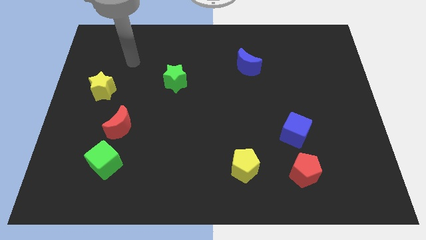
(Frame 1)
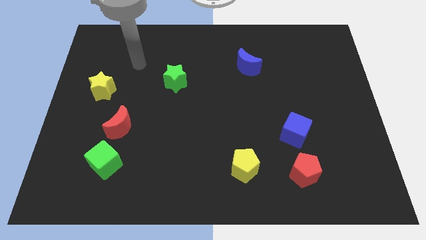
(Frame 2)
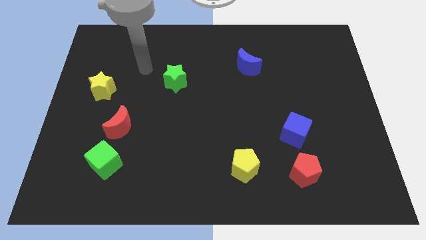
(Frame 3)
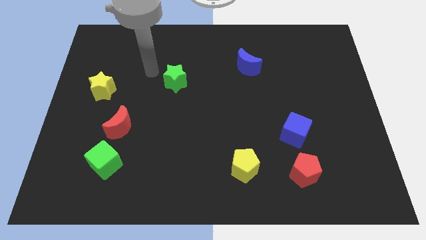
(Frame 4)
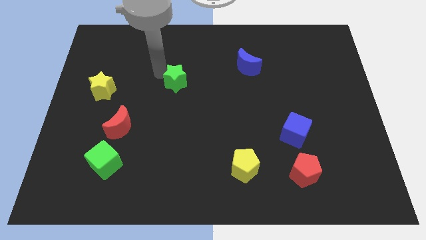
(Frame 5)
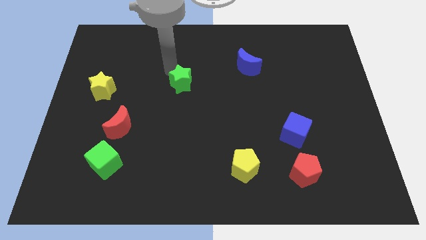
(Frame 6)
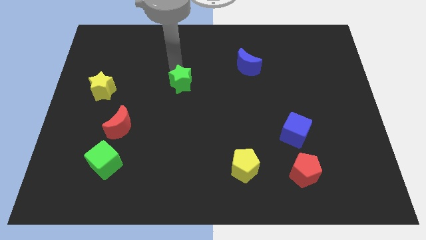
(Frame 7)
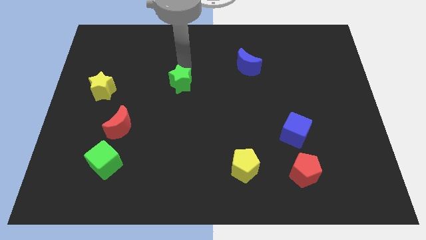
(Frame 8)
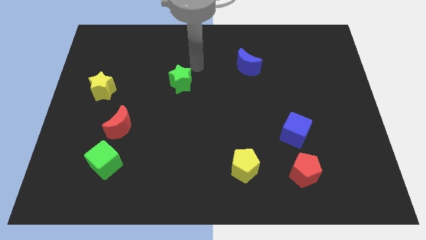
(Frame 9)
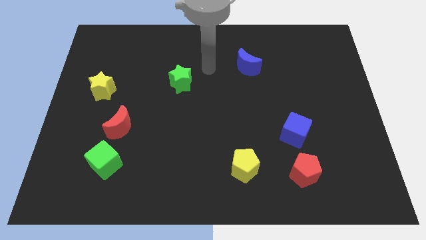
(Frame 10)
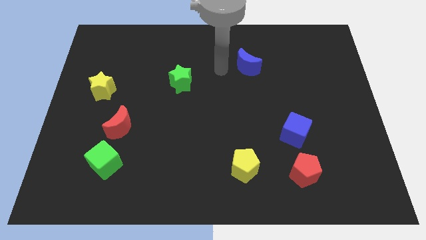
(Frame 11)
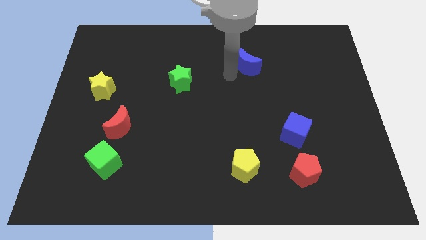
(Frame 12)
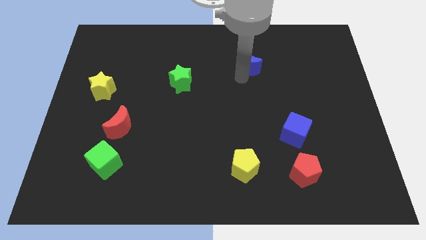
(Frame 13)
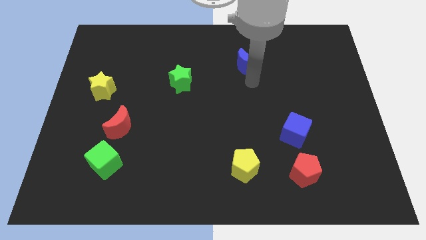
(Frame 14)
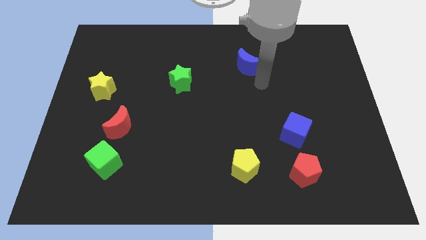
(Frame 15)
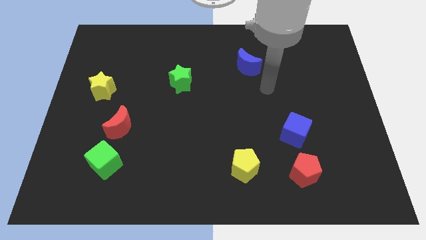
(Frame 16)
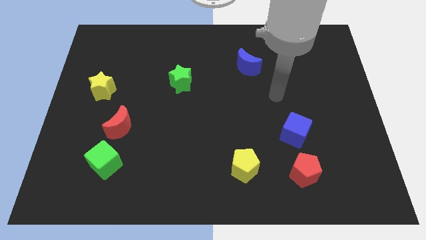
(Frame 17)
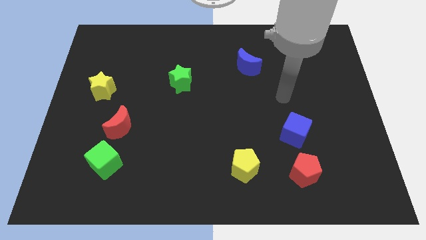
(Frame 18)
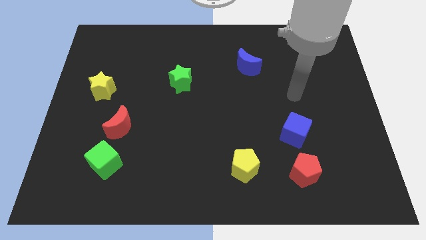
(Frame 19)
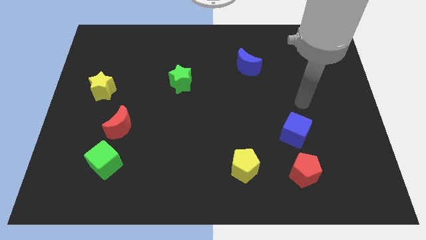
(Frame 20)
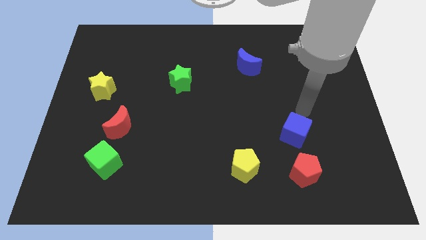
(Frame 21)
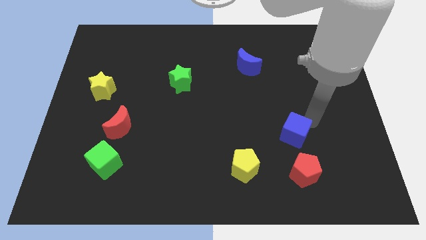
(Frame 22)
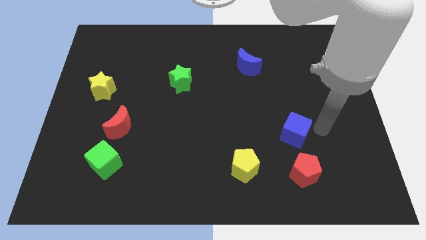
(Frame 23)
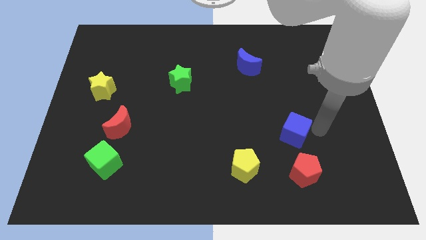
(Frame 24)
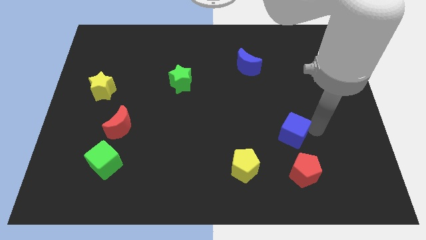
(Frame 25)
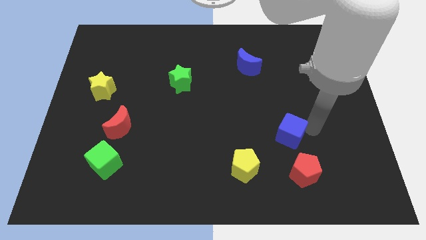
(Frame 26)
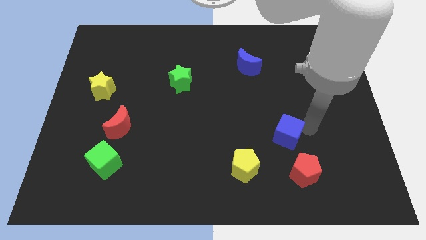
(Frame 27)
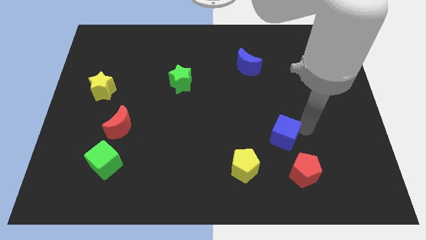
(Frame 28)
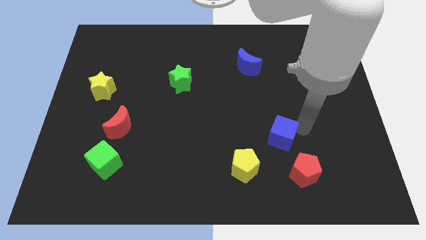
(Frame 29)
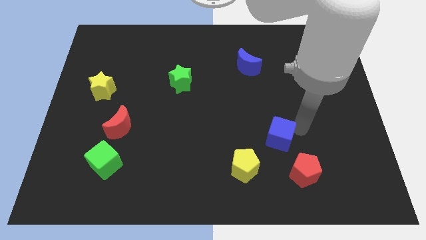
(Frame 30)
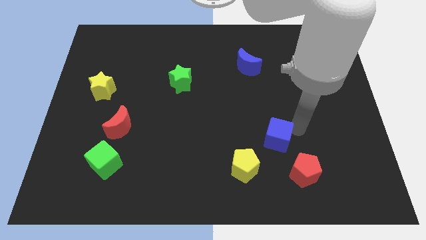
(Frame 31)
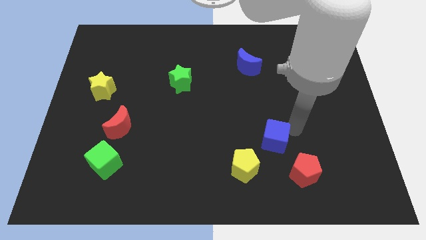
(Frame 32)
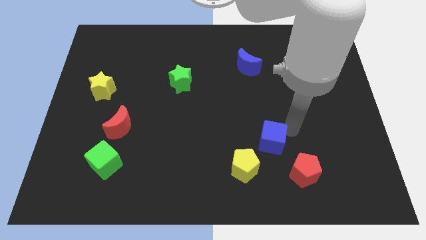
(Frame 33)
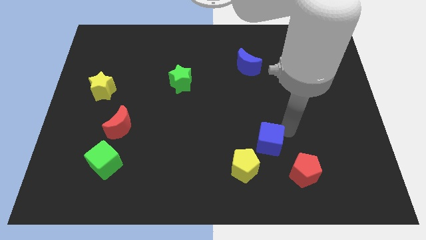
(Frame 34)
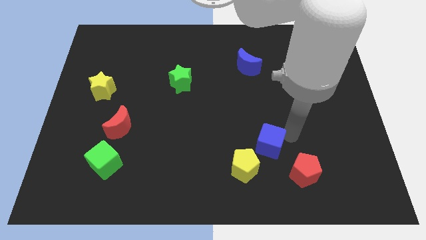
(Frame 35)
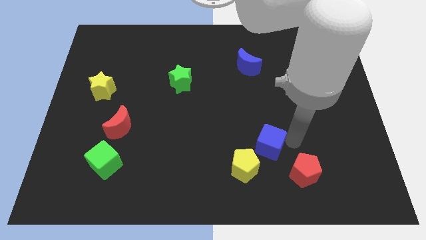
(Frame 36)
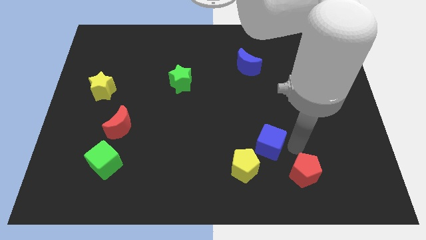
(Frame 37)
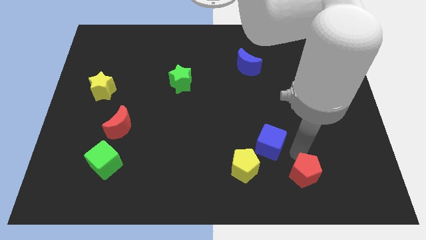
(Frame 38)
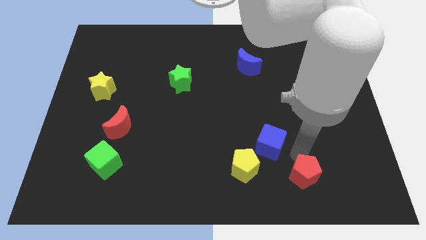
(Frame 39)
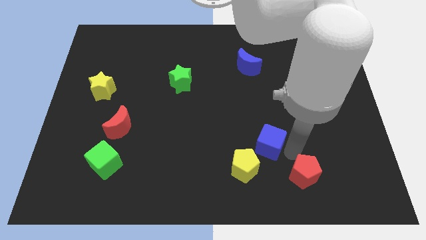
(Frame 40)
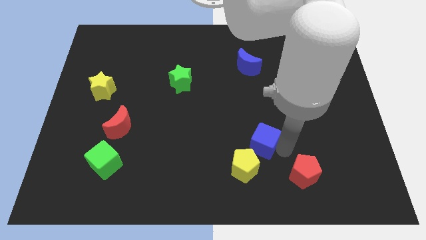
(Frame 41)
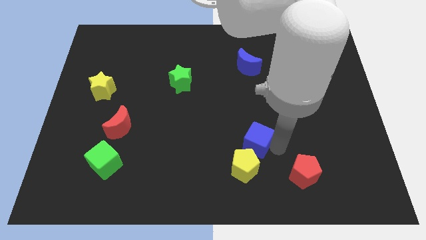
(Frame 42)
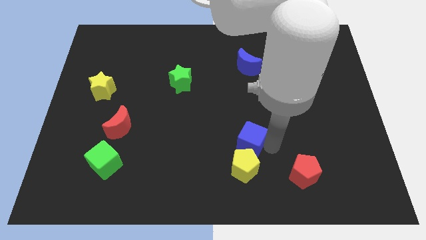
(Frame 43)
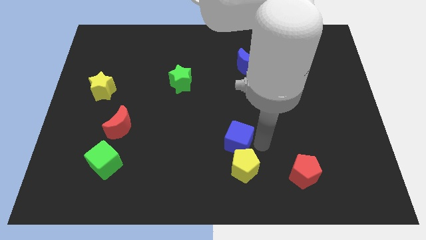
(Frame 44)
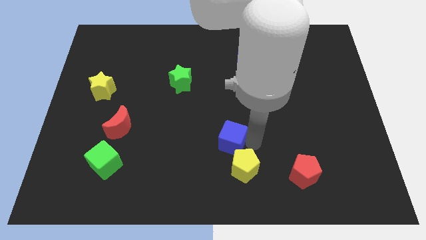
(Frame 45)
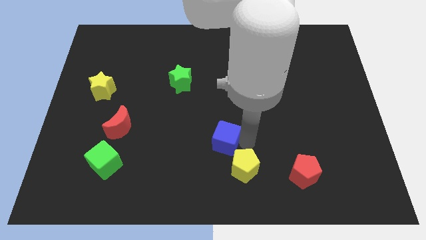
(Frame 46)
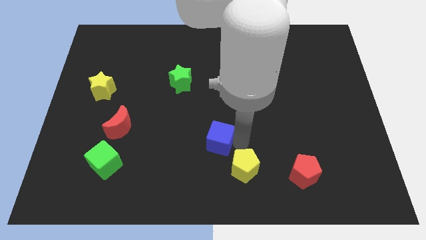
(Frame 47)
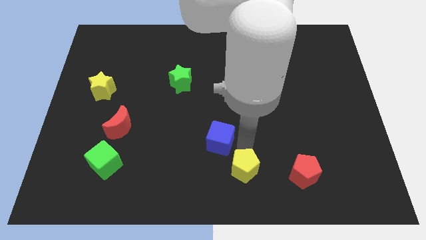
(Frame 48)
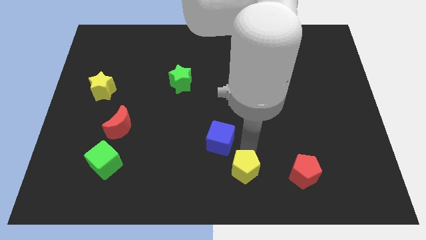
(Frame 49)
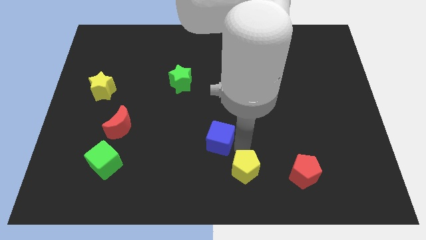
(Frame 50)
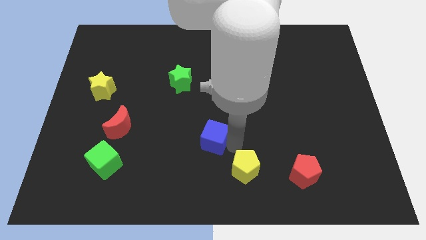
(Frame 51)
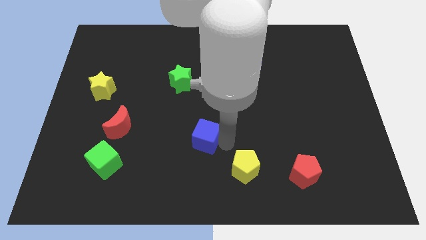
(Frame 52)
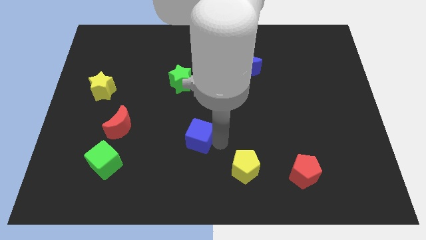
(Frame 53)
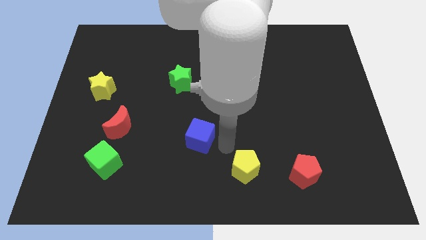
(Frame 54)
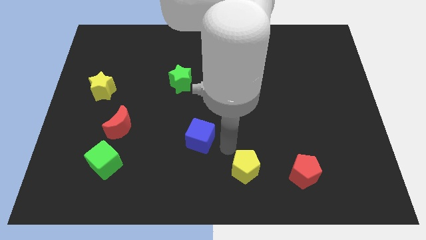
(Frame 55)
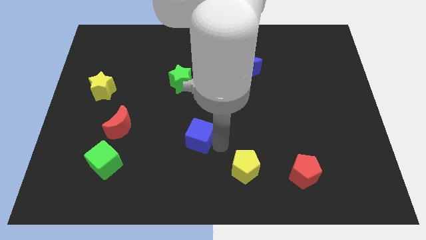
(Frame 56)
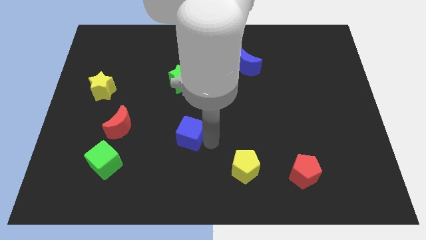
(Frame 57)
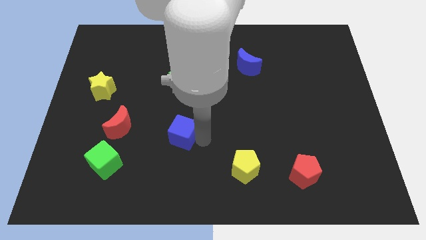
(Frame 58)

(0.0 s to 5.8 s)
put the blue cube to the right of the red moon

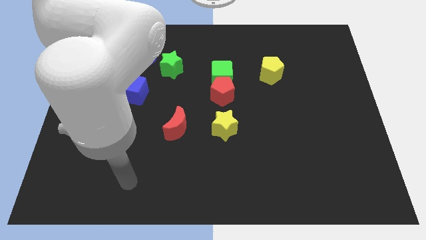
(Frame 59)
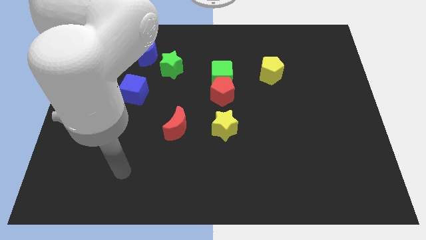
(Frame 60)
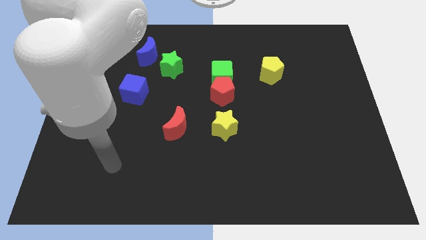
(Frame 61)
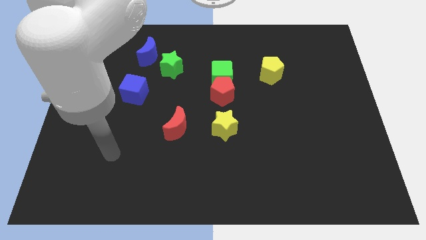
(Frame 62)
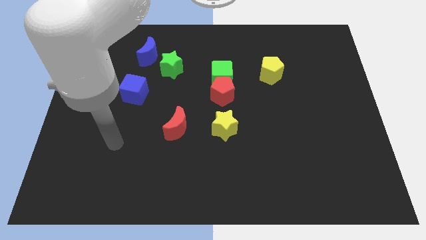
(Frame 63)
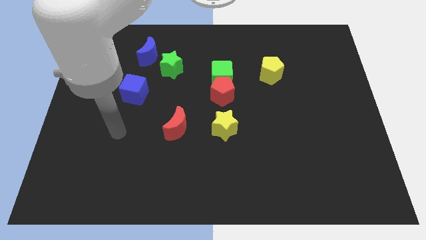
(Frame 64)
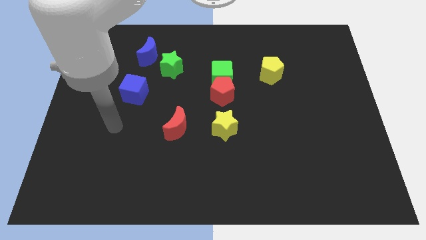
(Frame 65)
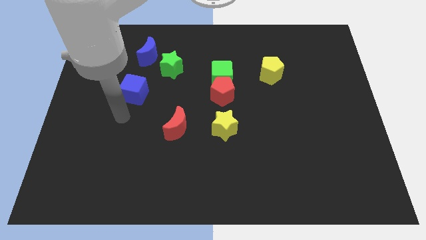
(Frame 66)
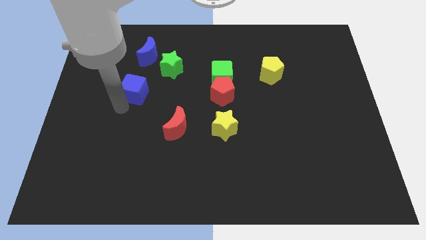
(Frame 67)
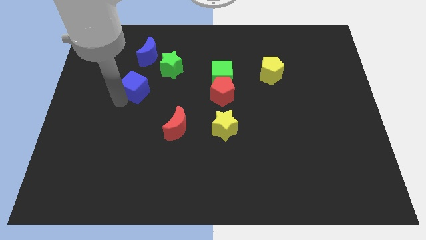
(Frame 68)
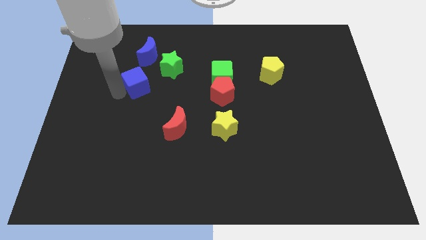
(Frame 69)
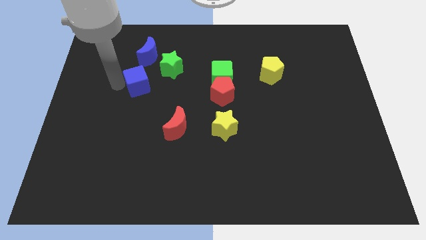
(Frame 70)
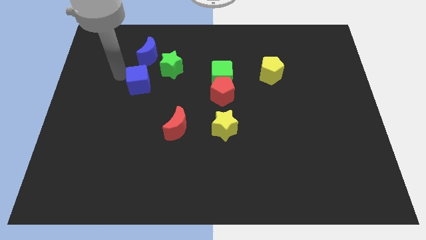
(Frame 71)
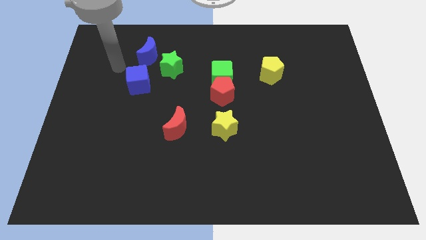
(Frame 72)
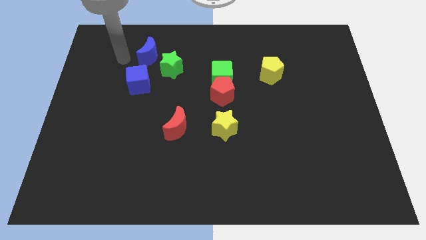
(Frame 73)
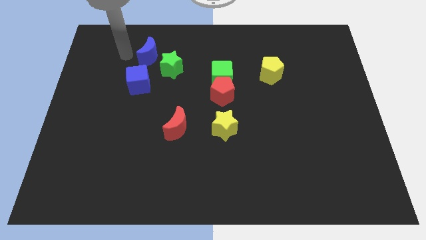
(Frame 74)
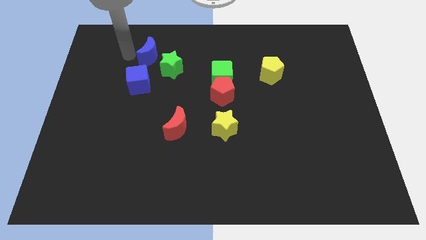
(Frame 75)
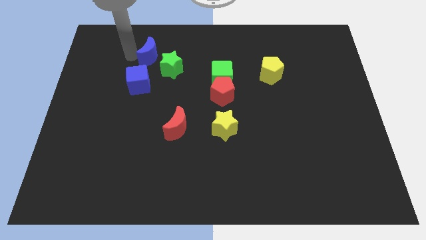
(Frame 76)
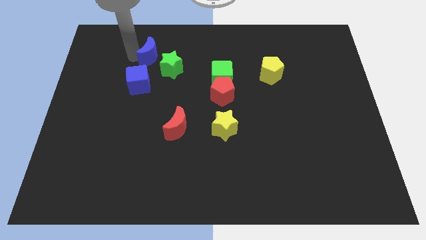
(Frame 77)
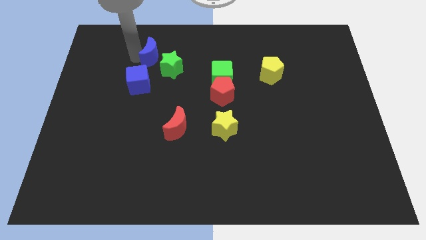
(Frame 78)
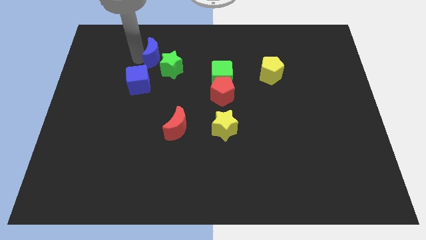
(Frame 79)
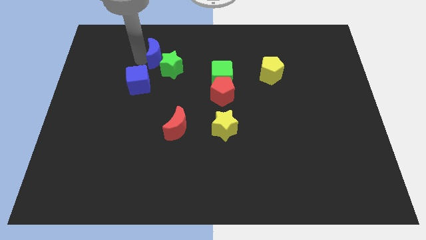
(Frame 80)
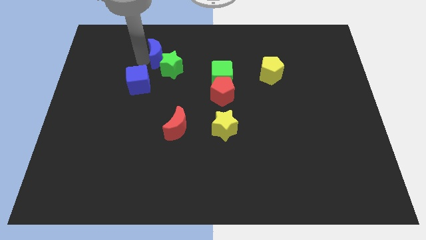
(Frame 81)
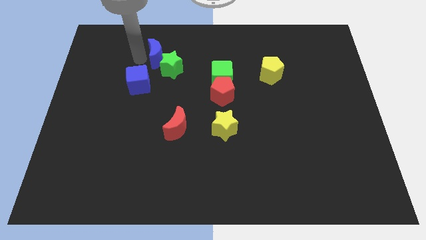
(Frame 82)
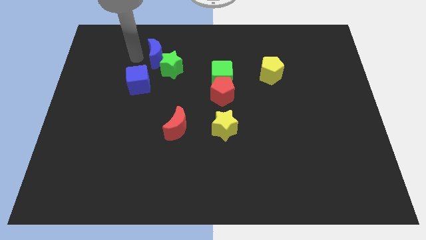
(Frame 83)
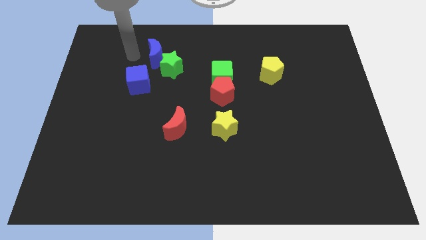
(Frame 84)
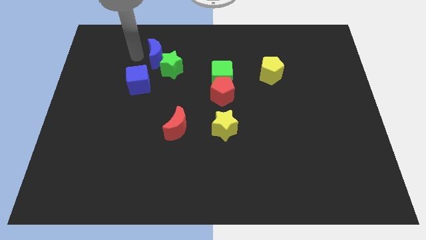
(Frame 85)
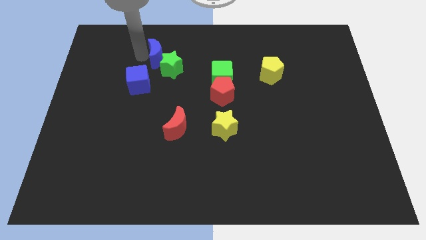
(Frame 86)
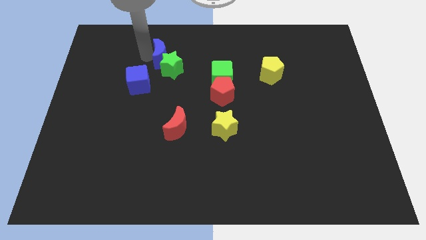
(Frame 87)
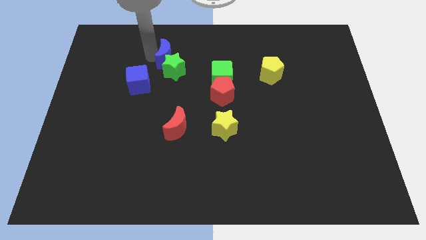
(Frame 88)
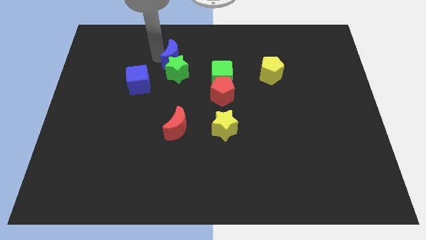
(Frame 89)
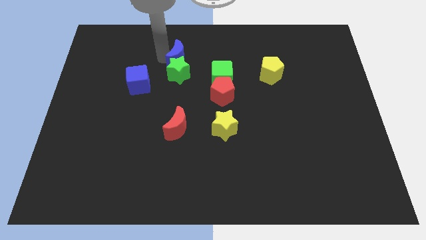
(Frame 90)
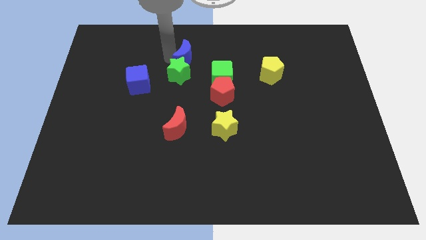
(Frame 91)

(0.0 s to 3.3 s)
push the blue moon to the top left side of the green cube
